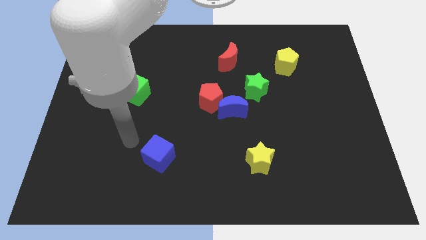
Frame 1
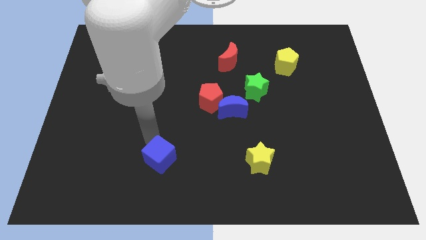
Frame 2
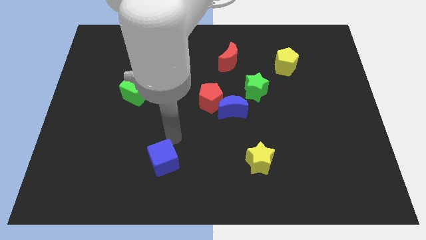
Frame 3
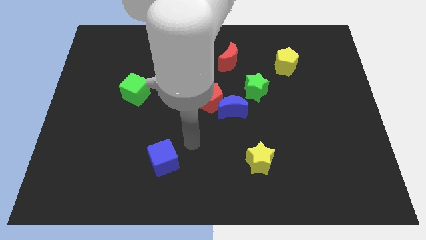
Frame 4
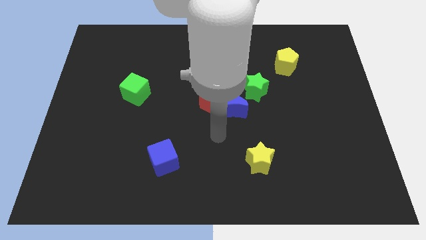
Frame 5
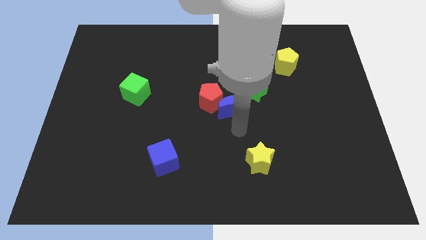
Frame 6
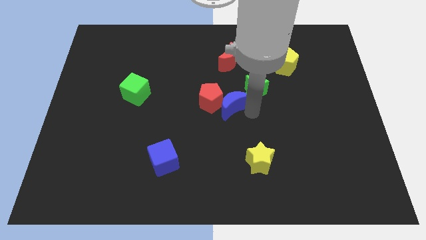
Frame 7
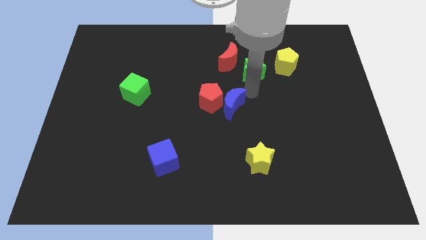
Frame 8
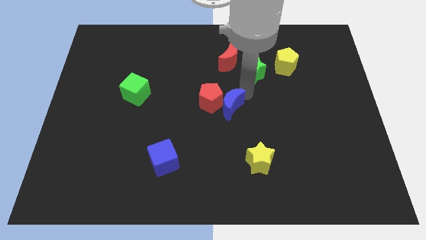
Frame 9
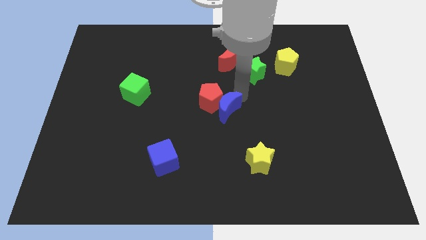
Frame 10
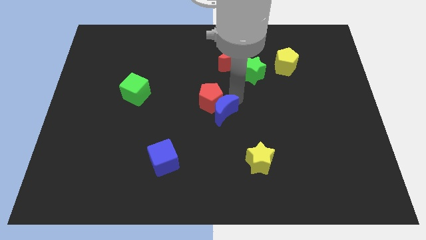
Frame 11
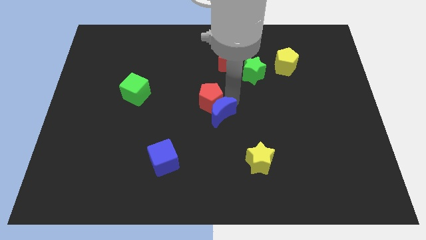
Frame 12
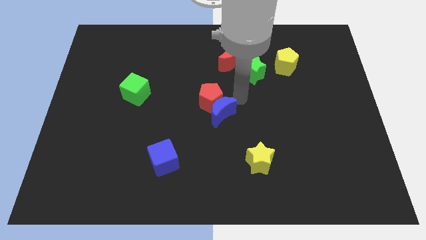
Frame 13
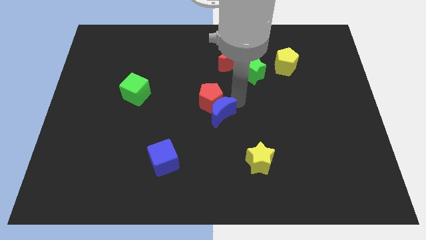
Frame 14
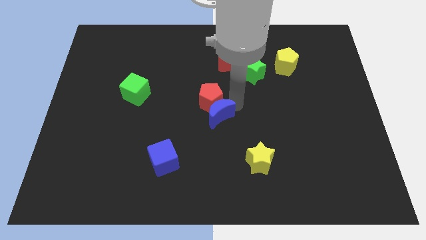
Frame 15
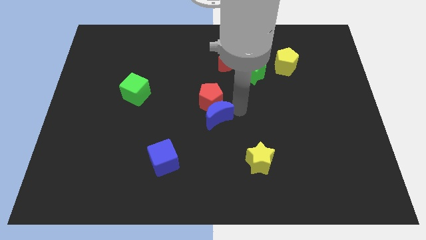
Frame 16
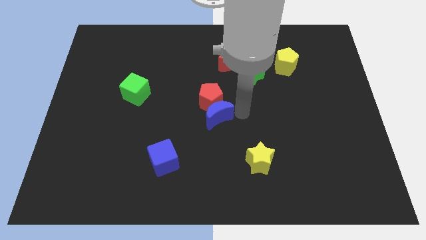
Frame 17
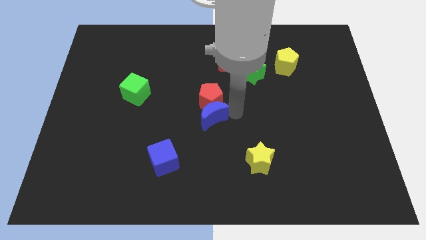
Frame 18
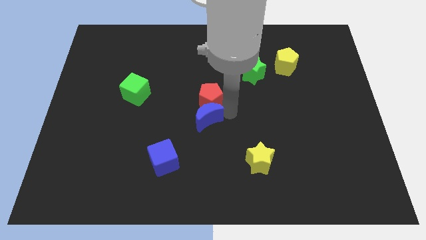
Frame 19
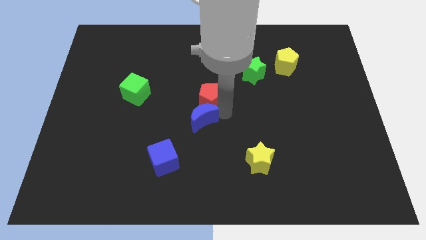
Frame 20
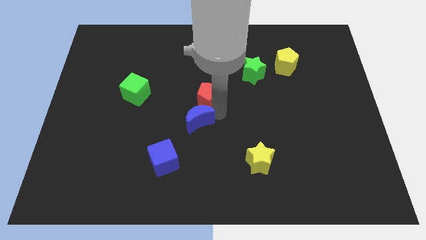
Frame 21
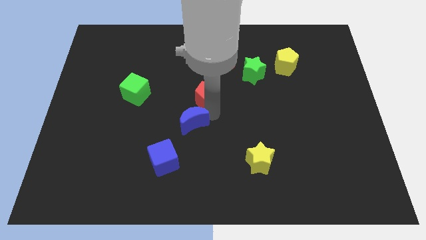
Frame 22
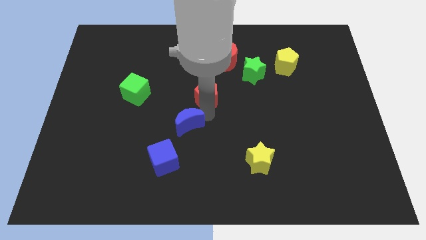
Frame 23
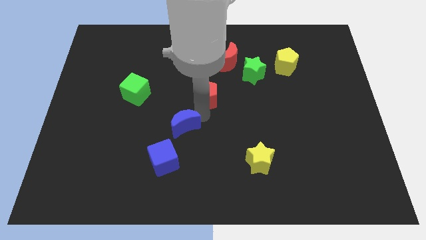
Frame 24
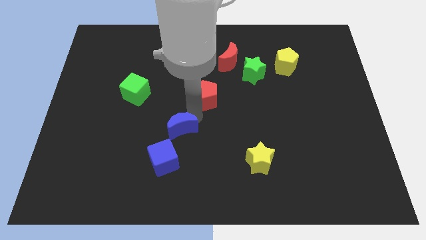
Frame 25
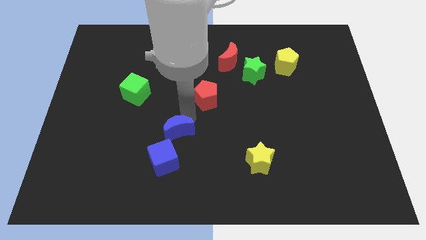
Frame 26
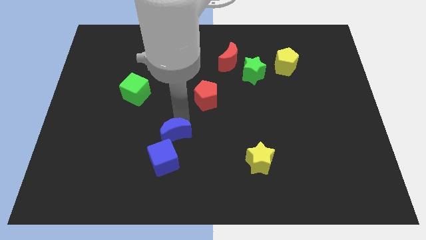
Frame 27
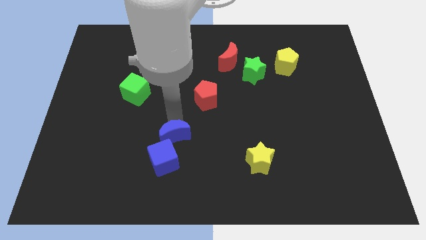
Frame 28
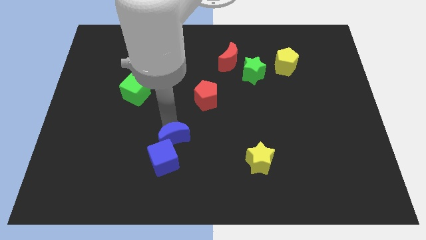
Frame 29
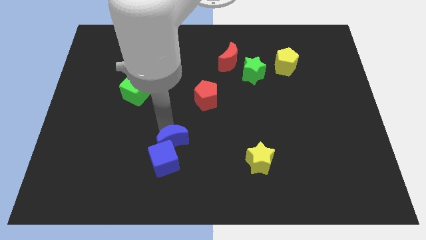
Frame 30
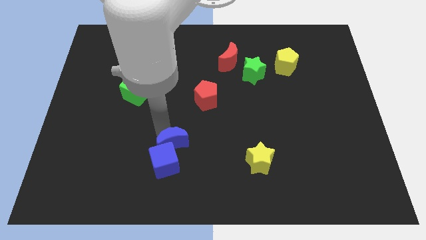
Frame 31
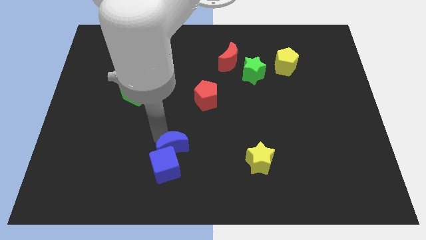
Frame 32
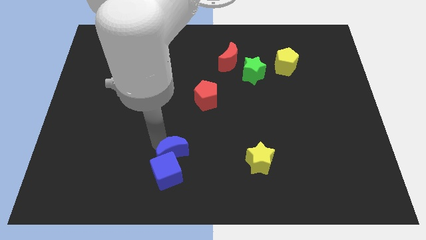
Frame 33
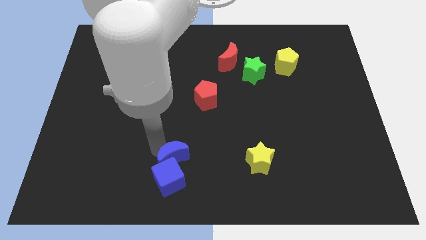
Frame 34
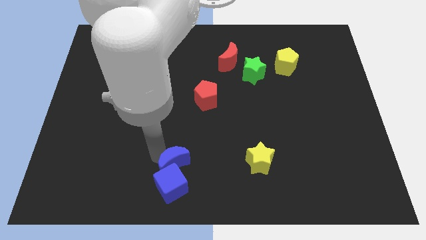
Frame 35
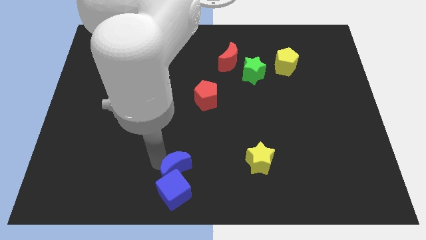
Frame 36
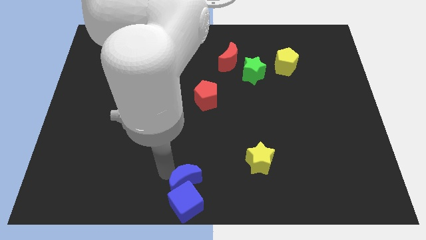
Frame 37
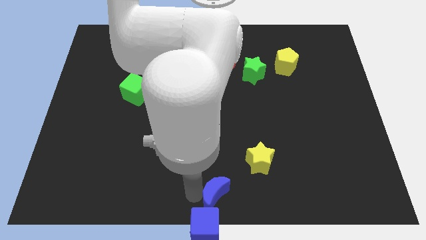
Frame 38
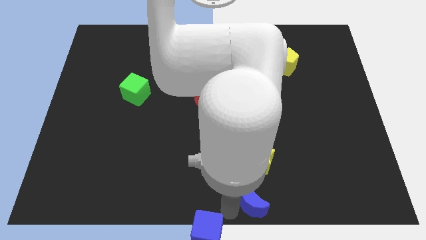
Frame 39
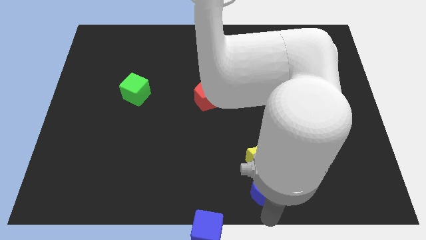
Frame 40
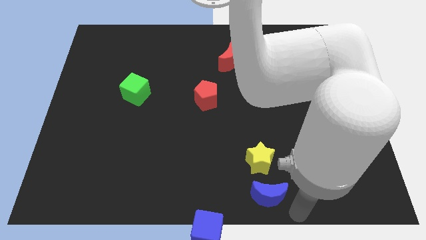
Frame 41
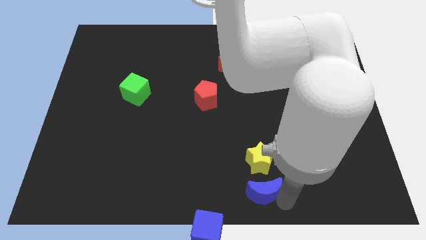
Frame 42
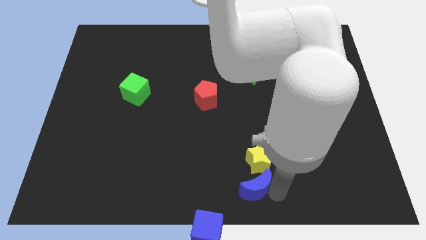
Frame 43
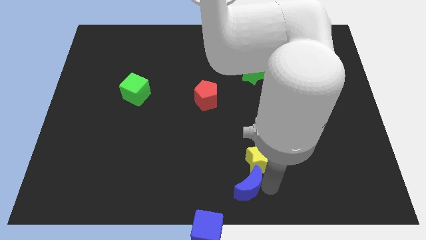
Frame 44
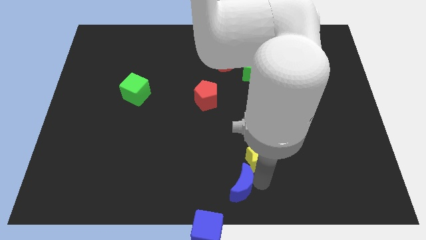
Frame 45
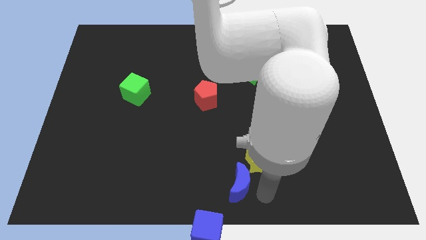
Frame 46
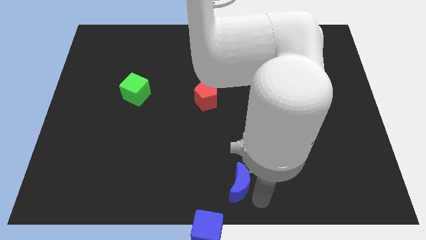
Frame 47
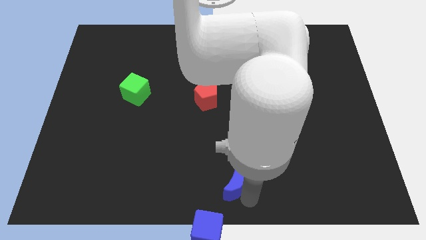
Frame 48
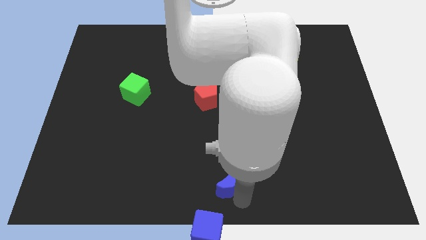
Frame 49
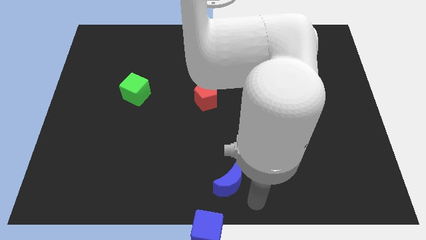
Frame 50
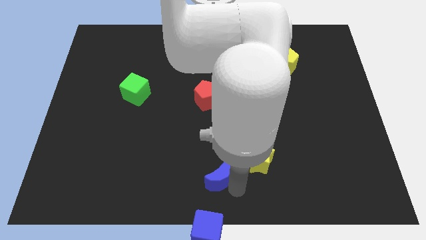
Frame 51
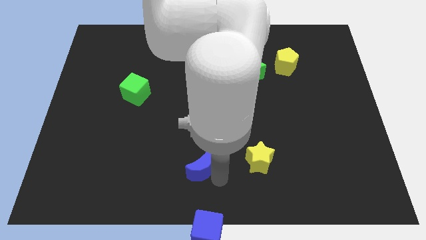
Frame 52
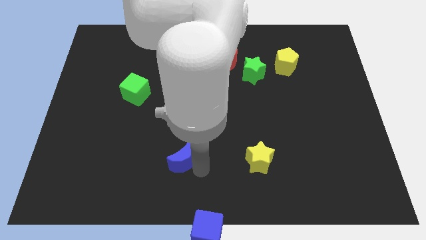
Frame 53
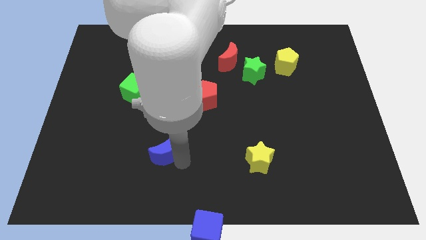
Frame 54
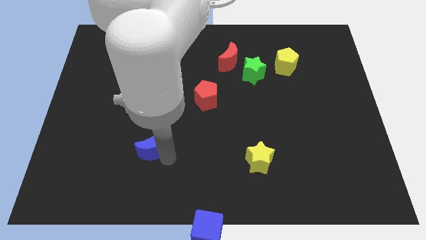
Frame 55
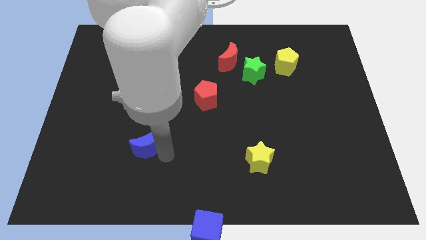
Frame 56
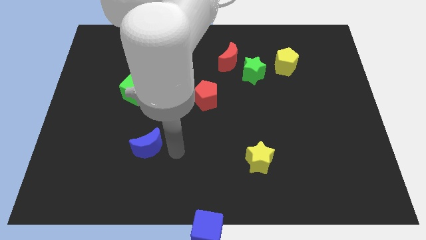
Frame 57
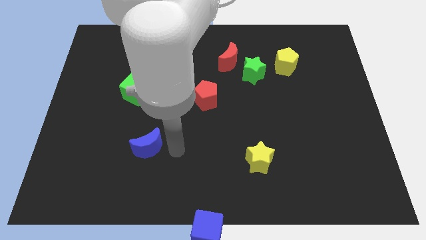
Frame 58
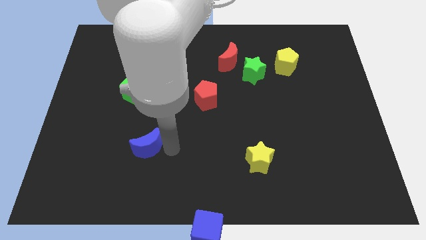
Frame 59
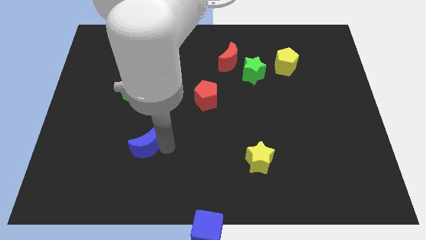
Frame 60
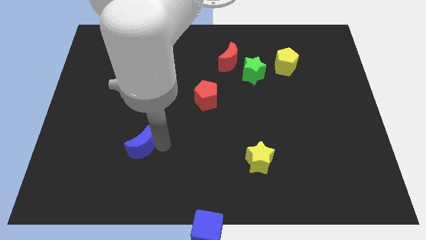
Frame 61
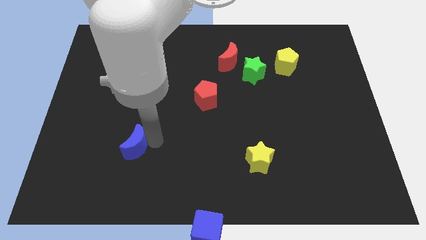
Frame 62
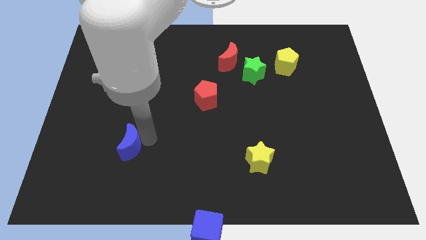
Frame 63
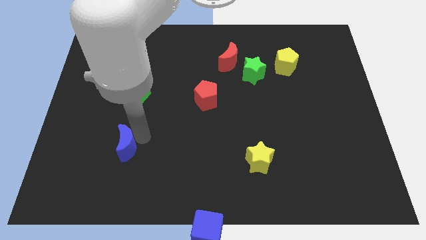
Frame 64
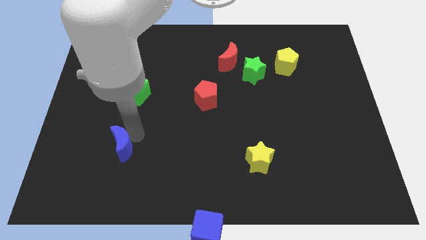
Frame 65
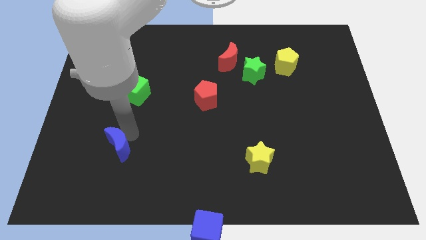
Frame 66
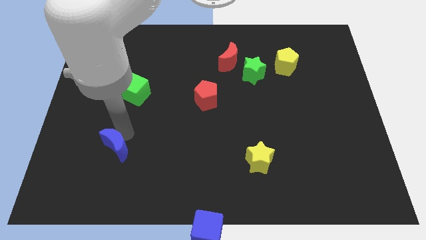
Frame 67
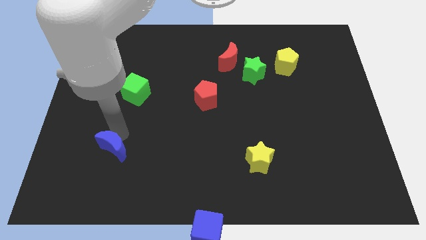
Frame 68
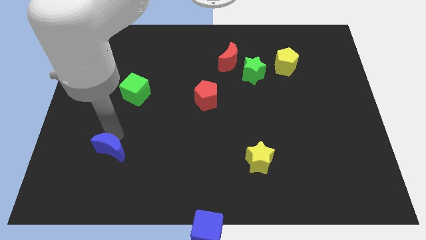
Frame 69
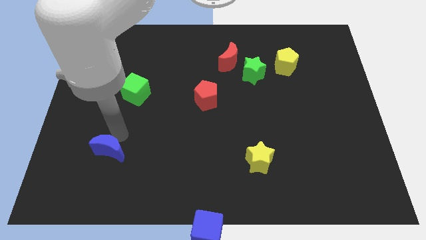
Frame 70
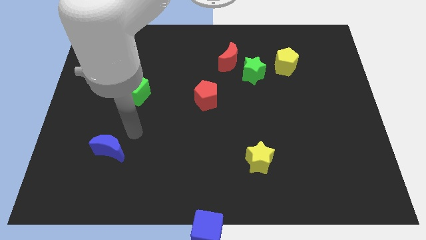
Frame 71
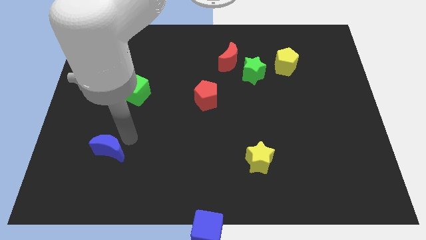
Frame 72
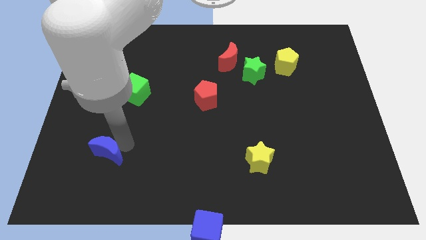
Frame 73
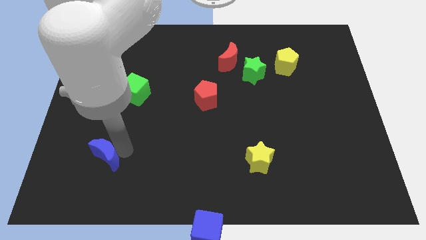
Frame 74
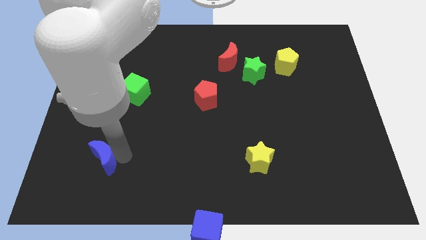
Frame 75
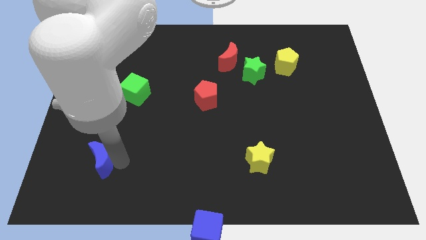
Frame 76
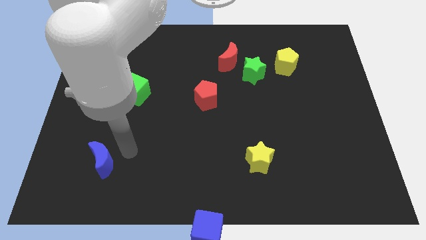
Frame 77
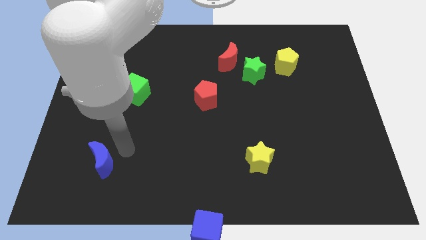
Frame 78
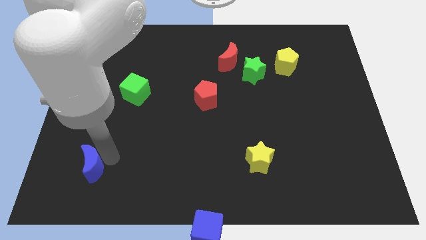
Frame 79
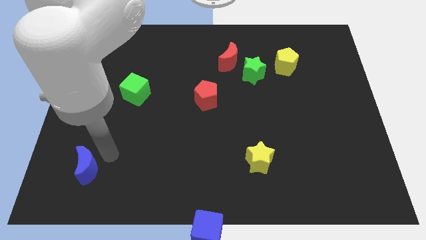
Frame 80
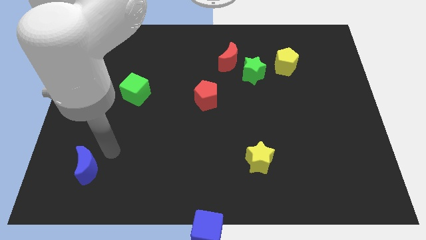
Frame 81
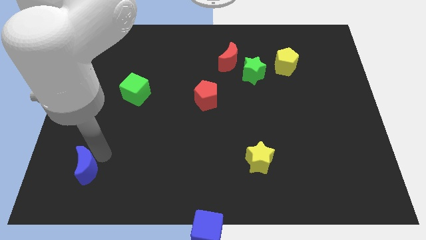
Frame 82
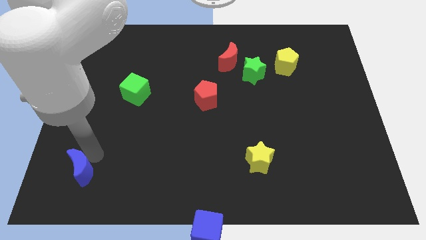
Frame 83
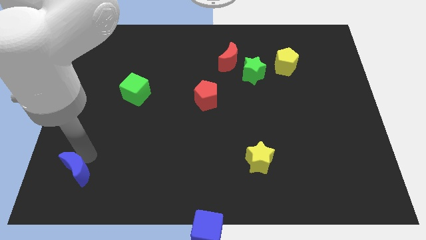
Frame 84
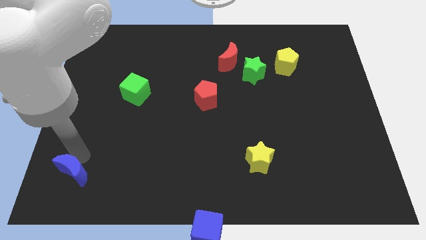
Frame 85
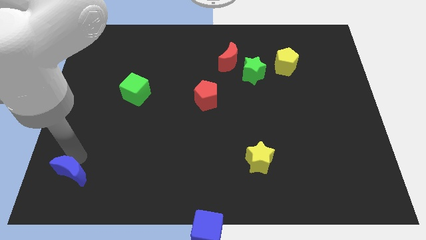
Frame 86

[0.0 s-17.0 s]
move the blue moon to the bottom left
